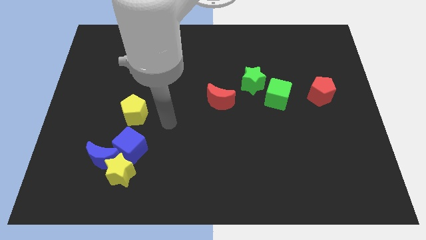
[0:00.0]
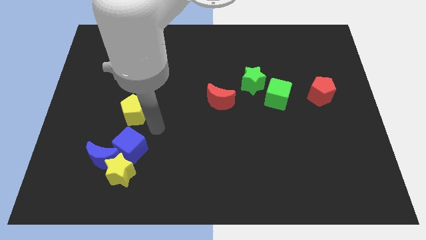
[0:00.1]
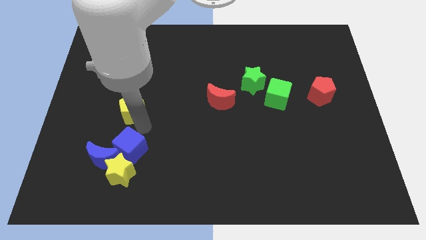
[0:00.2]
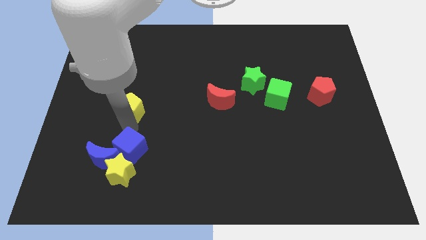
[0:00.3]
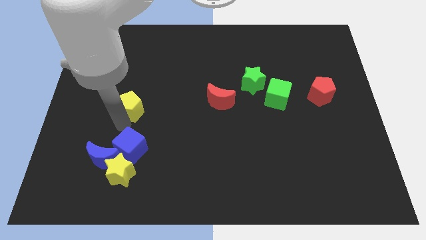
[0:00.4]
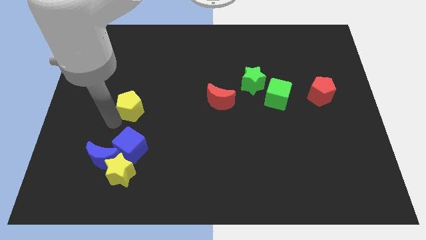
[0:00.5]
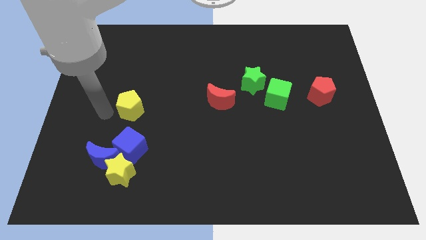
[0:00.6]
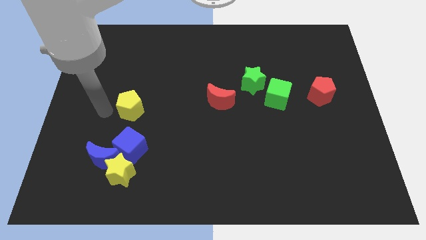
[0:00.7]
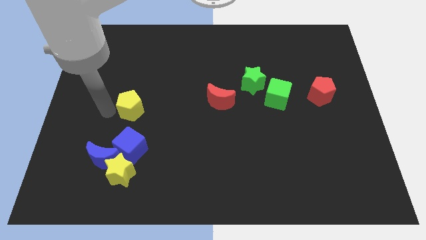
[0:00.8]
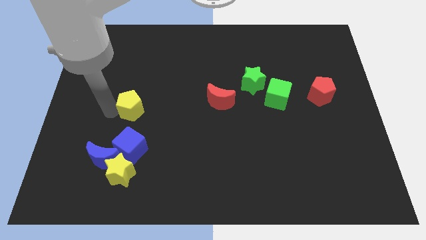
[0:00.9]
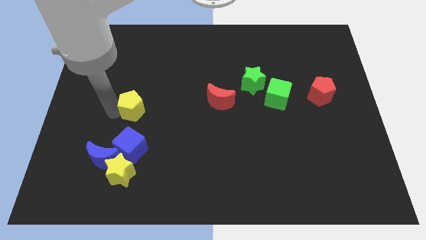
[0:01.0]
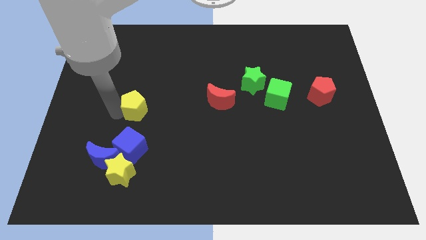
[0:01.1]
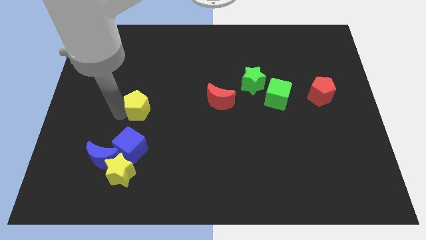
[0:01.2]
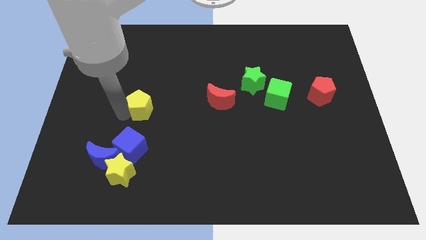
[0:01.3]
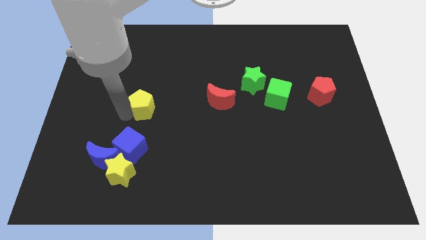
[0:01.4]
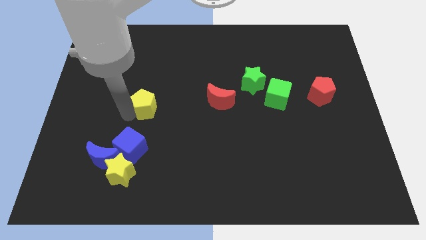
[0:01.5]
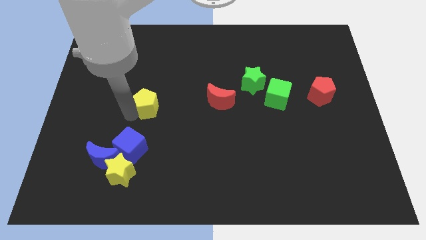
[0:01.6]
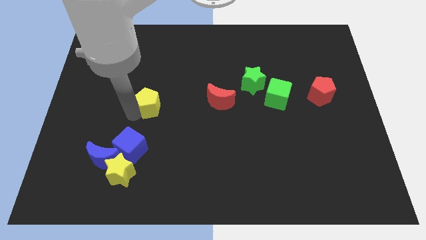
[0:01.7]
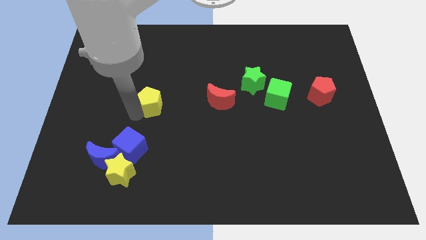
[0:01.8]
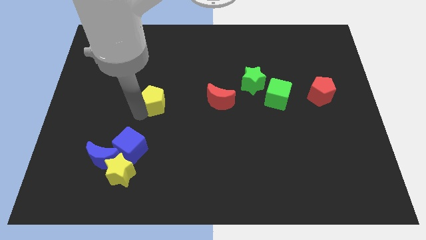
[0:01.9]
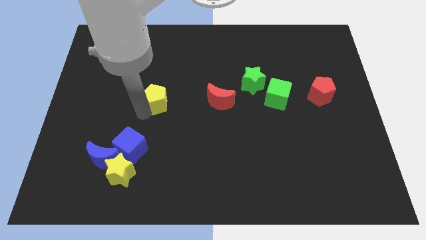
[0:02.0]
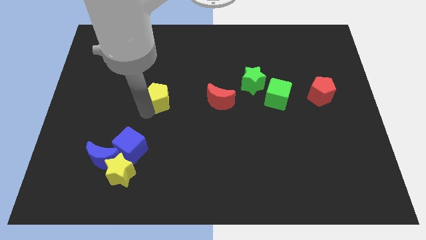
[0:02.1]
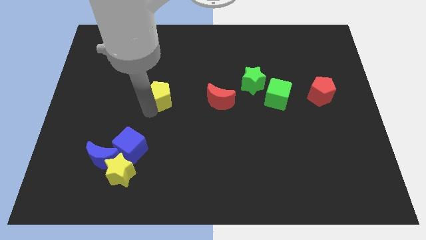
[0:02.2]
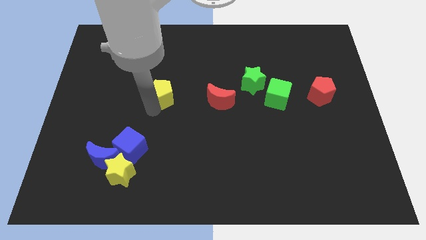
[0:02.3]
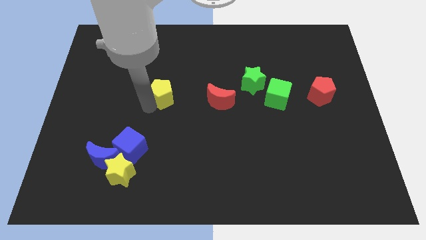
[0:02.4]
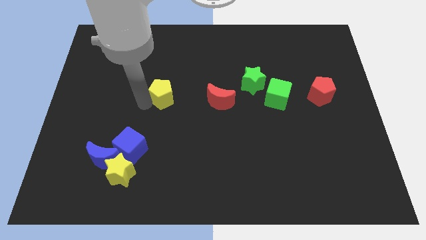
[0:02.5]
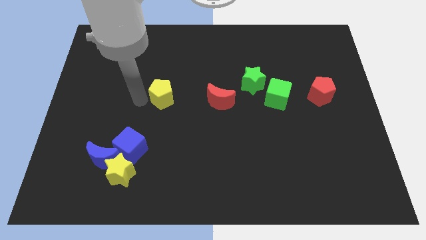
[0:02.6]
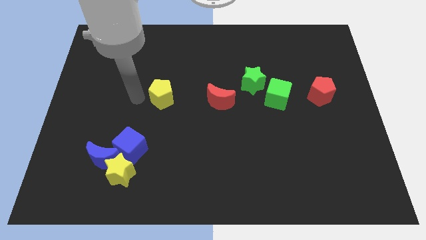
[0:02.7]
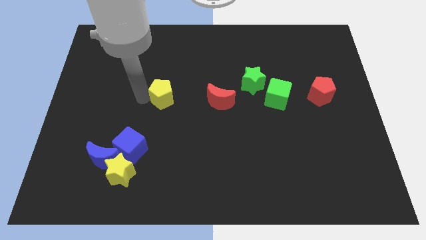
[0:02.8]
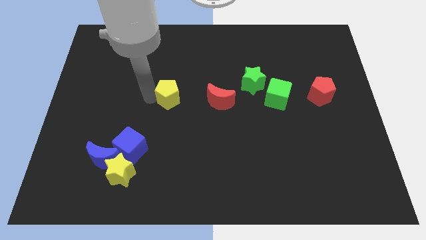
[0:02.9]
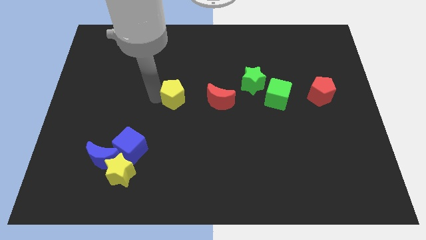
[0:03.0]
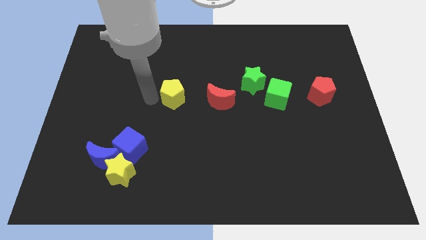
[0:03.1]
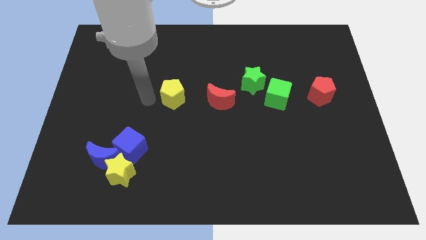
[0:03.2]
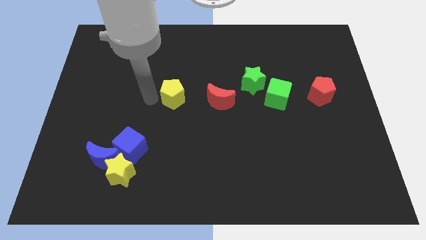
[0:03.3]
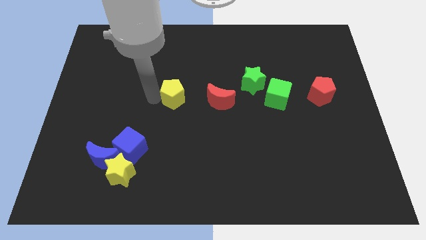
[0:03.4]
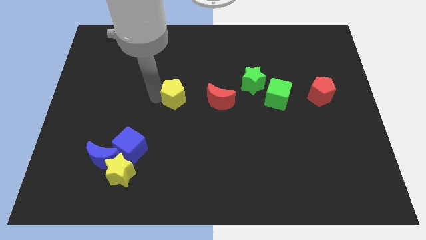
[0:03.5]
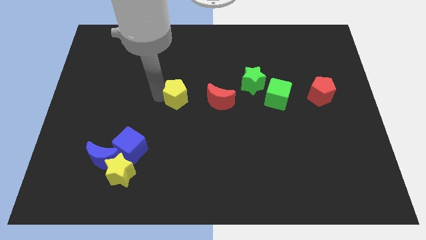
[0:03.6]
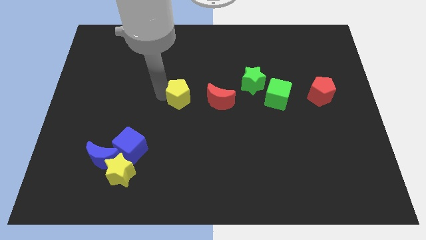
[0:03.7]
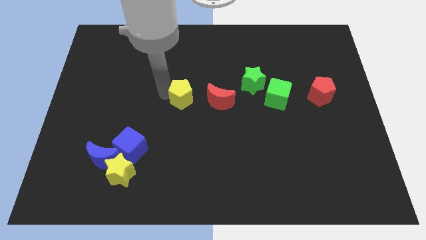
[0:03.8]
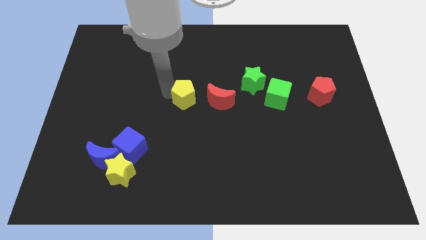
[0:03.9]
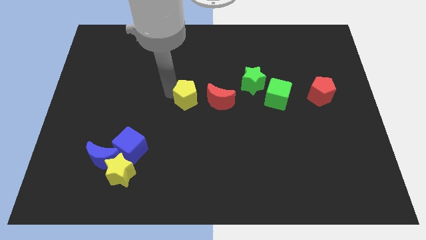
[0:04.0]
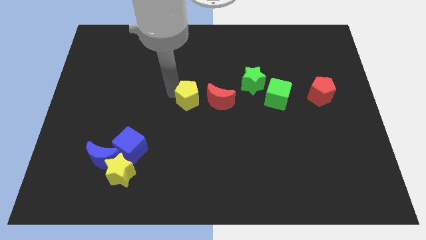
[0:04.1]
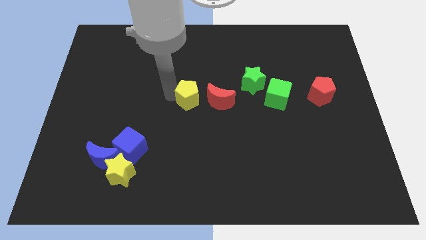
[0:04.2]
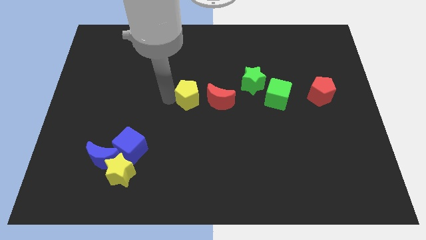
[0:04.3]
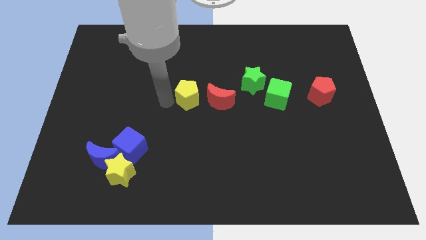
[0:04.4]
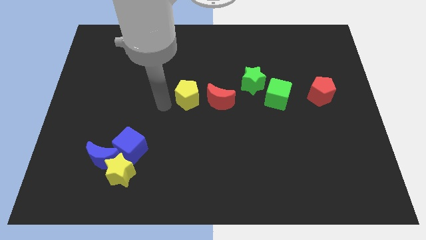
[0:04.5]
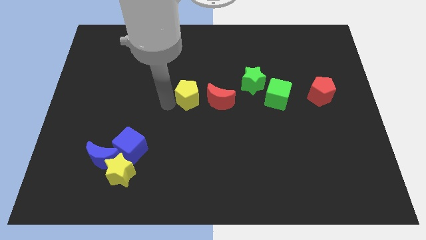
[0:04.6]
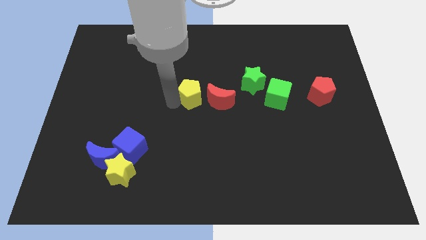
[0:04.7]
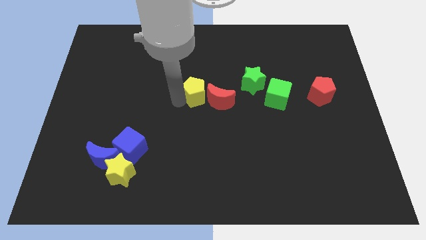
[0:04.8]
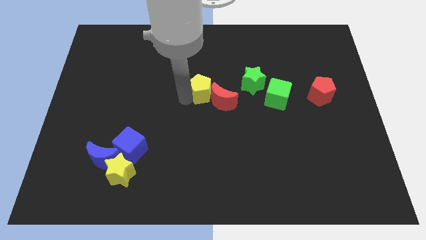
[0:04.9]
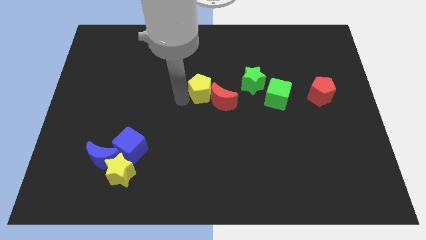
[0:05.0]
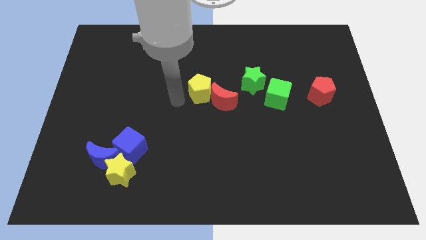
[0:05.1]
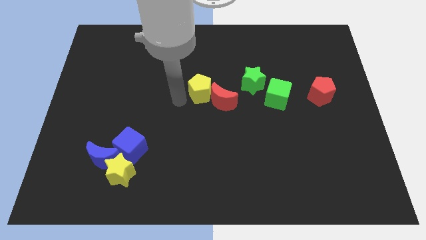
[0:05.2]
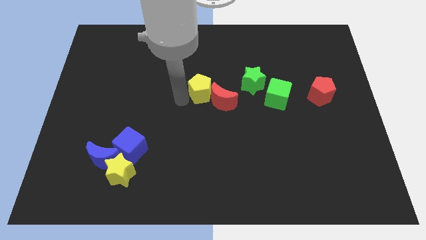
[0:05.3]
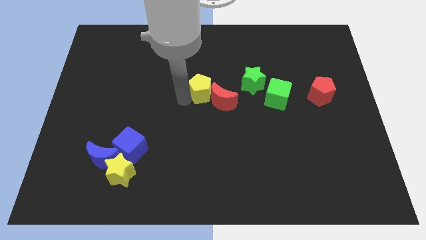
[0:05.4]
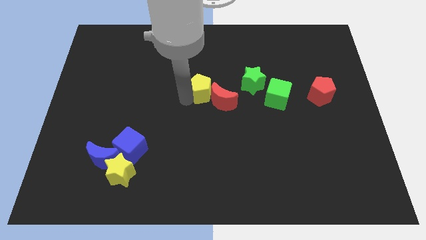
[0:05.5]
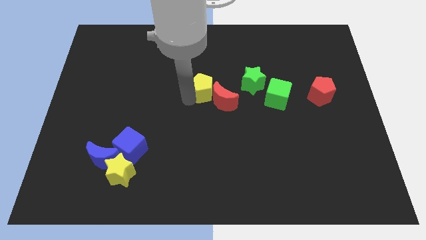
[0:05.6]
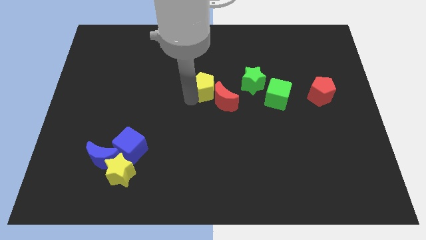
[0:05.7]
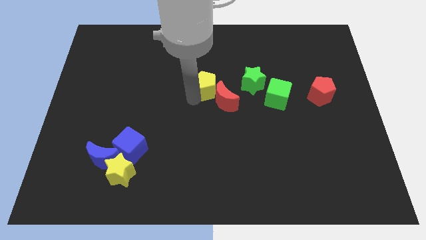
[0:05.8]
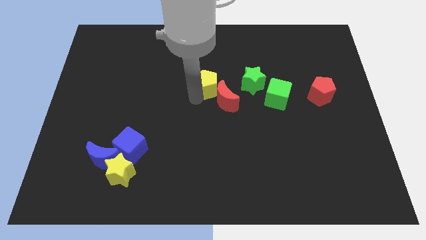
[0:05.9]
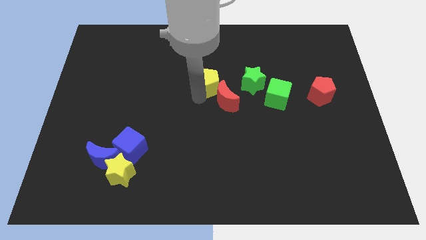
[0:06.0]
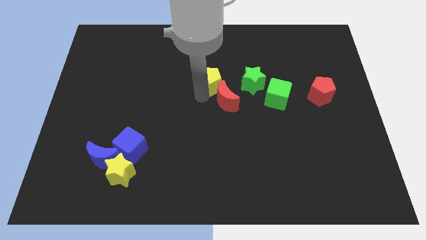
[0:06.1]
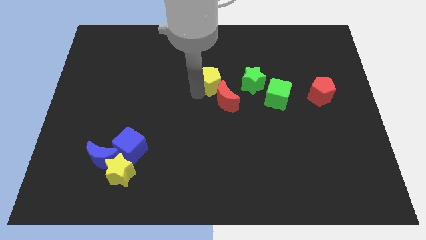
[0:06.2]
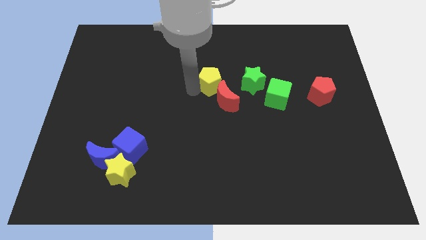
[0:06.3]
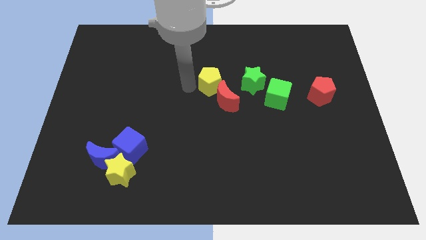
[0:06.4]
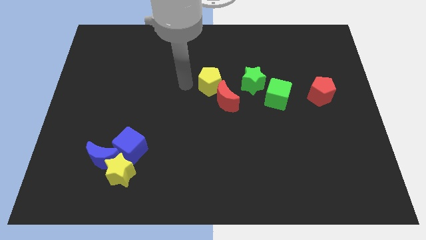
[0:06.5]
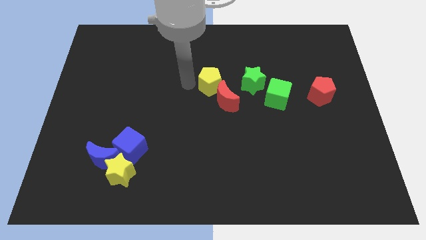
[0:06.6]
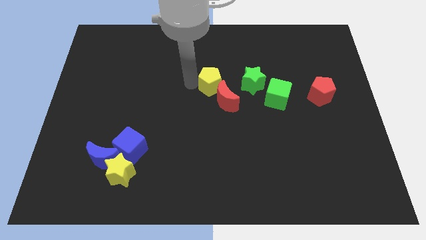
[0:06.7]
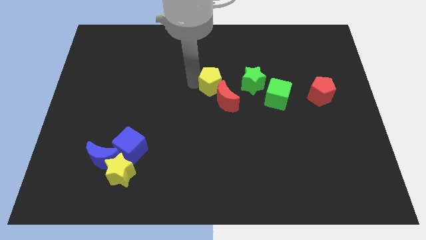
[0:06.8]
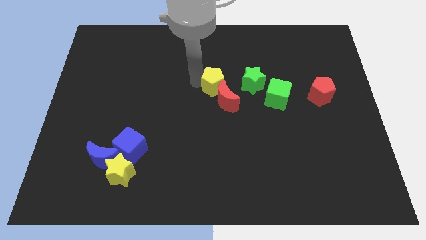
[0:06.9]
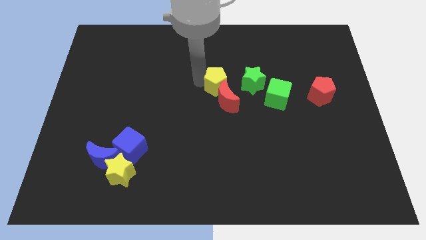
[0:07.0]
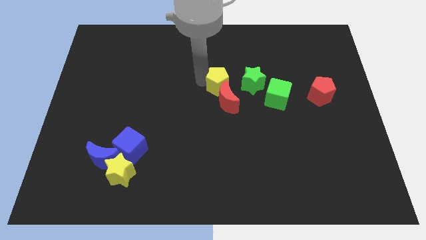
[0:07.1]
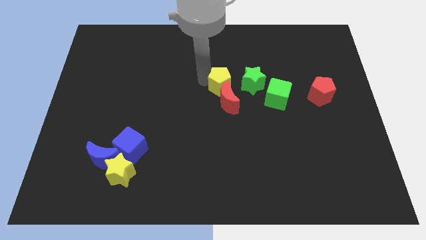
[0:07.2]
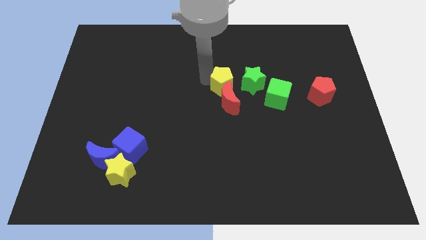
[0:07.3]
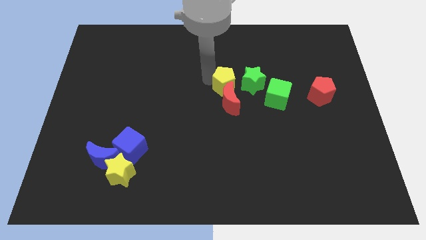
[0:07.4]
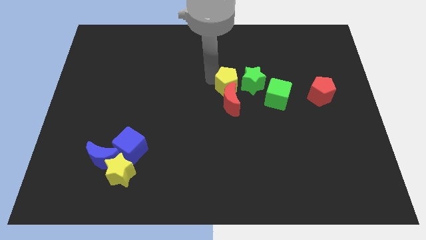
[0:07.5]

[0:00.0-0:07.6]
put the yellow pentagon to the green star

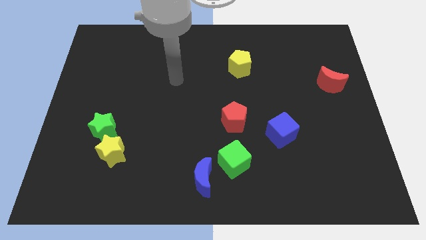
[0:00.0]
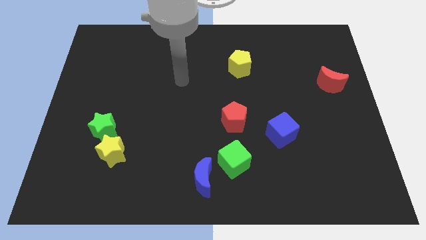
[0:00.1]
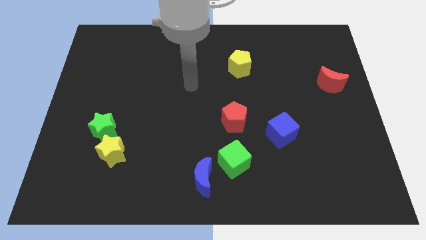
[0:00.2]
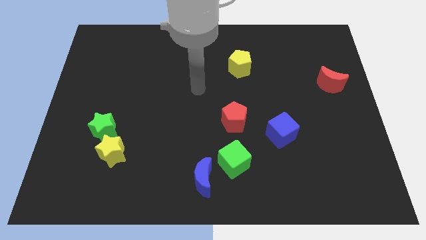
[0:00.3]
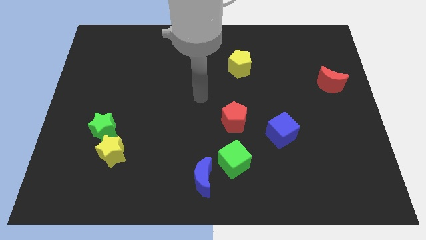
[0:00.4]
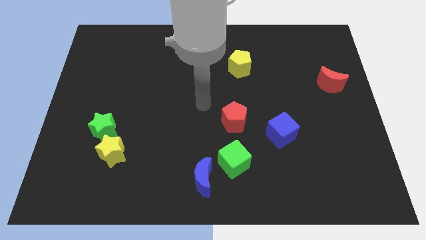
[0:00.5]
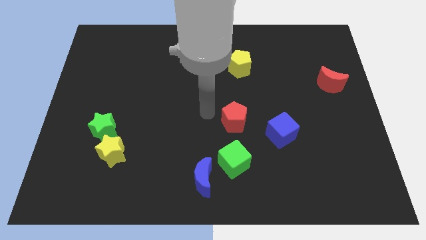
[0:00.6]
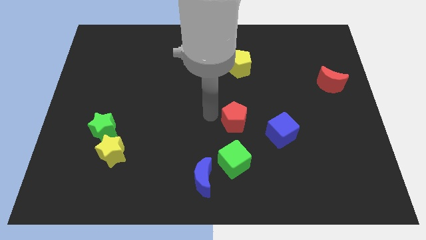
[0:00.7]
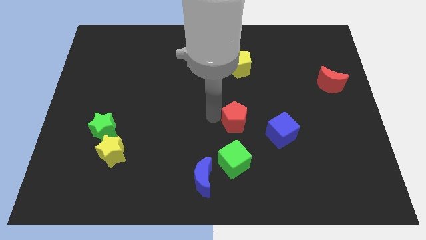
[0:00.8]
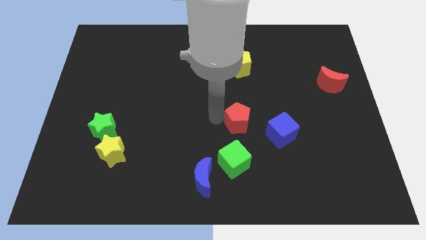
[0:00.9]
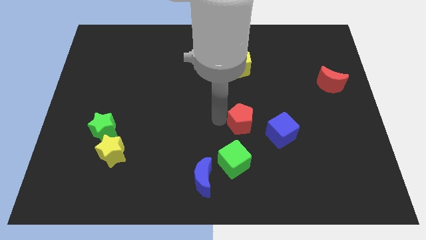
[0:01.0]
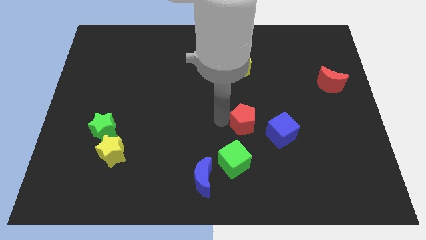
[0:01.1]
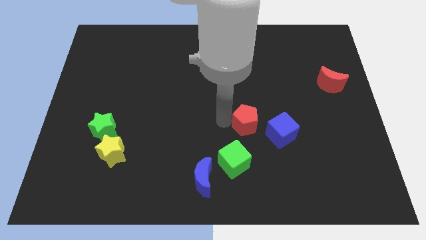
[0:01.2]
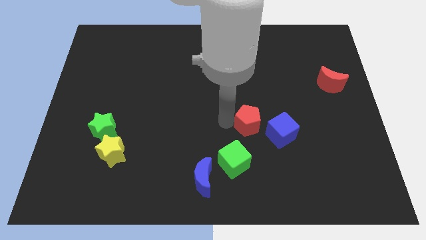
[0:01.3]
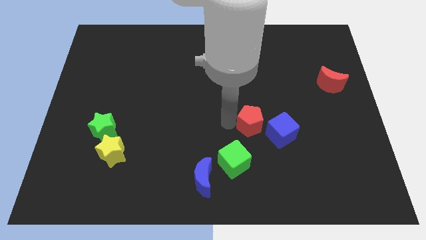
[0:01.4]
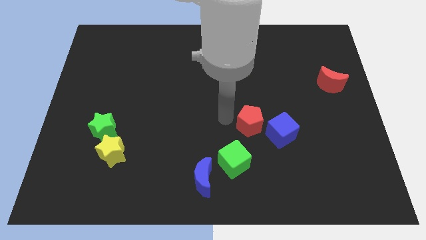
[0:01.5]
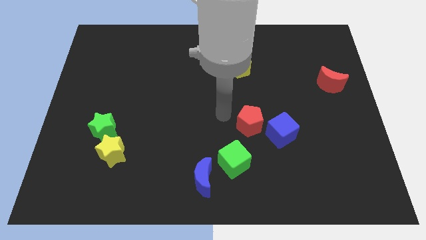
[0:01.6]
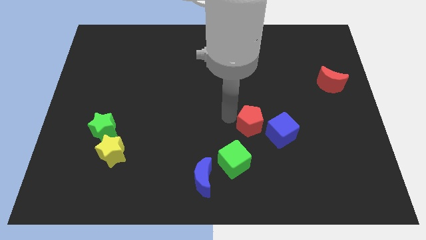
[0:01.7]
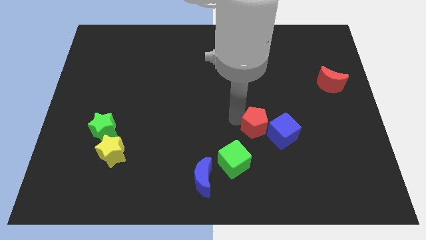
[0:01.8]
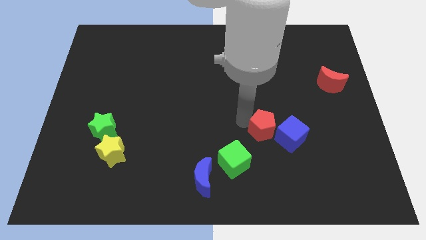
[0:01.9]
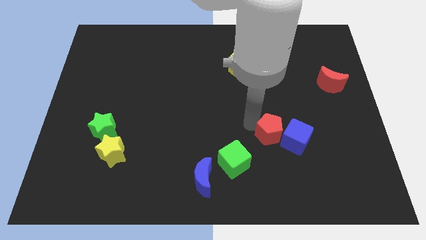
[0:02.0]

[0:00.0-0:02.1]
slide the red pentagon next to the blue cube
